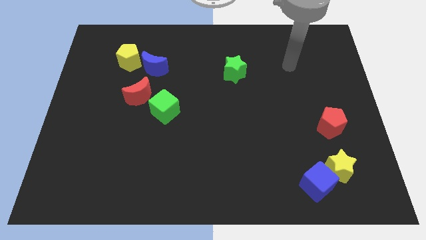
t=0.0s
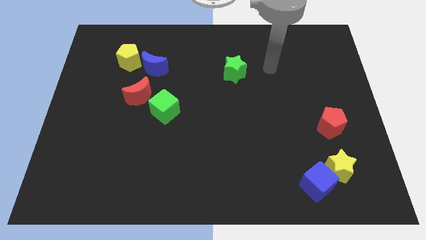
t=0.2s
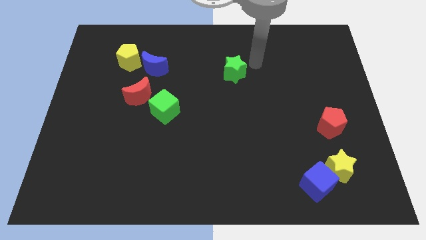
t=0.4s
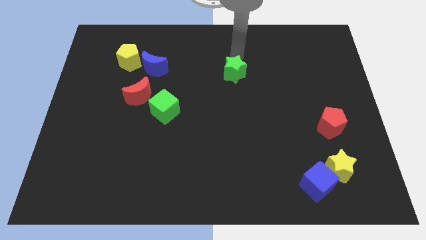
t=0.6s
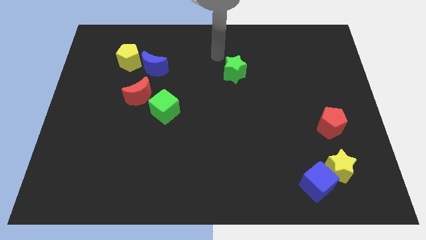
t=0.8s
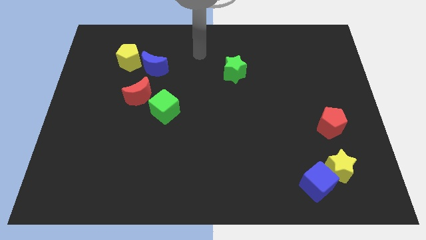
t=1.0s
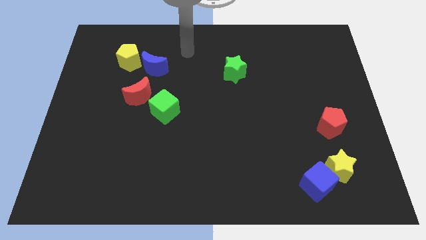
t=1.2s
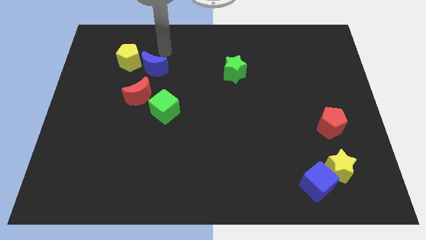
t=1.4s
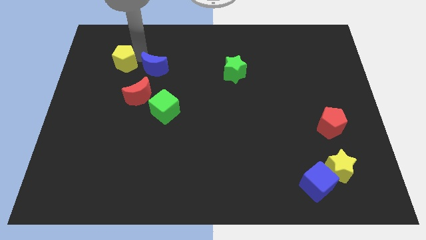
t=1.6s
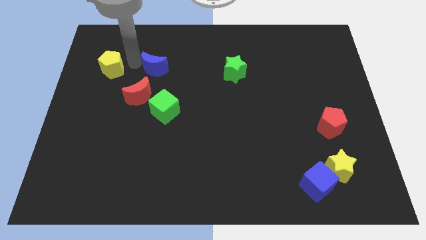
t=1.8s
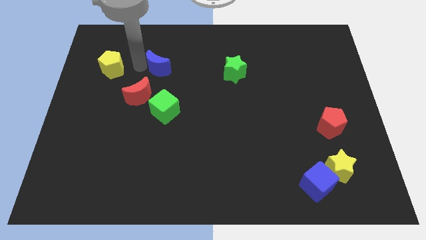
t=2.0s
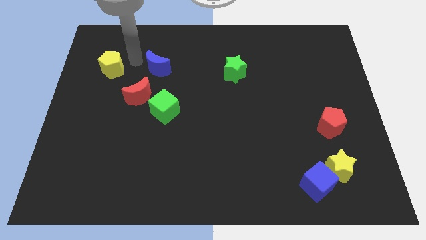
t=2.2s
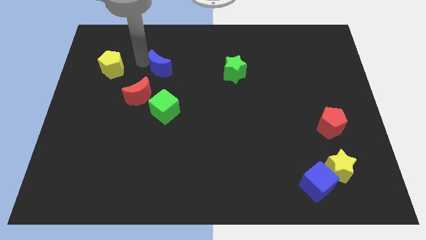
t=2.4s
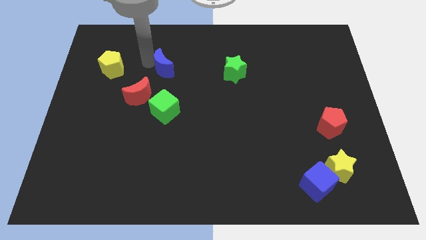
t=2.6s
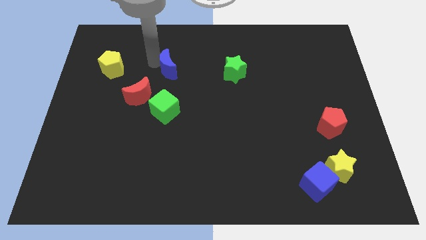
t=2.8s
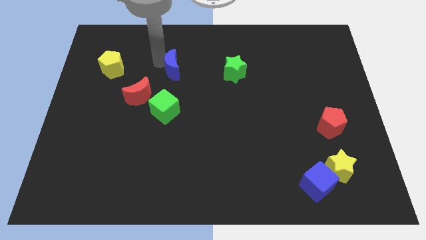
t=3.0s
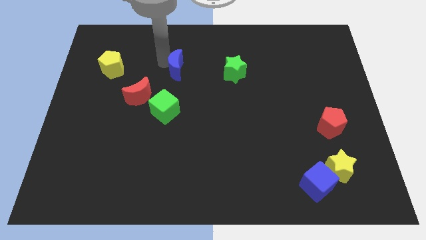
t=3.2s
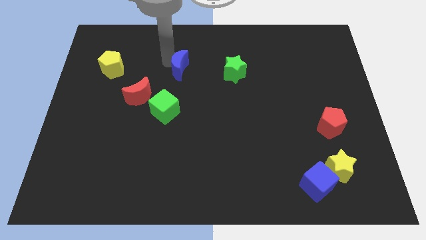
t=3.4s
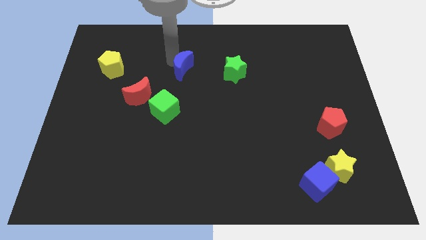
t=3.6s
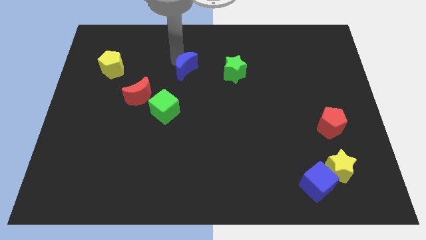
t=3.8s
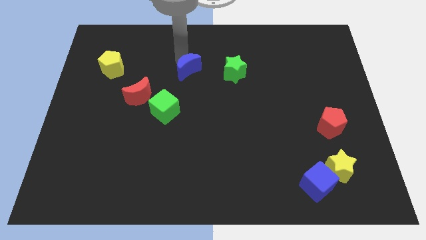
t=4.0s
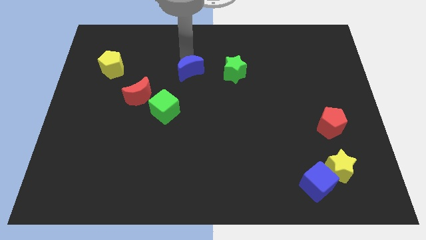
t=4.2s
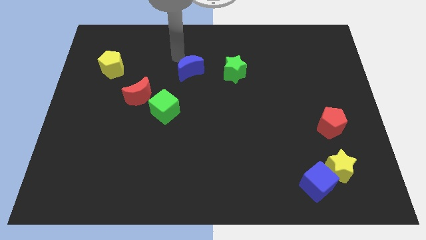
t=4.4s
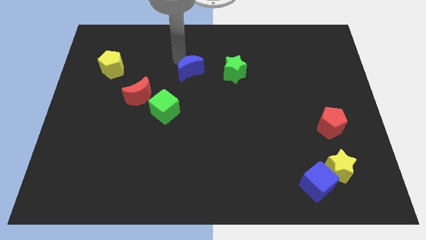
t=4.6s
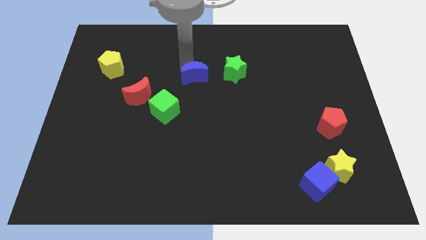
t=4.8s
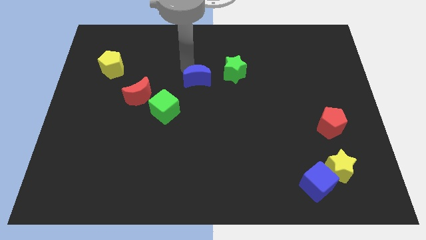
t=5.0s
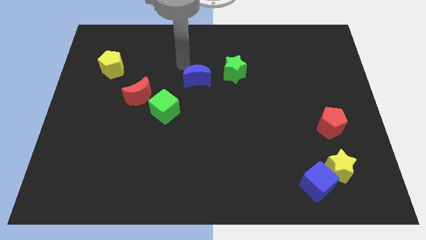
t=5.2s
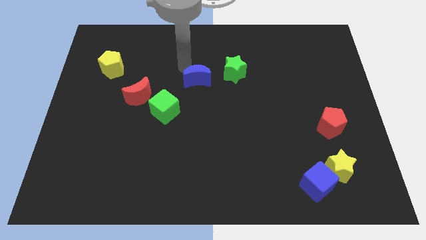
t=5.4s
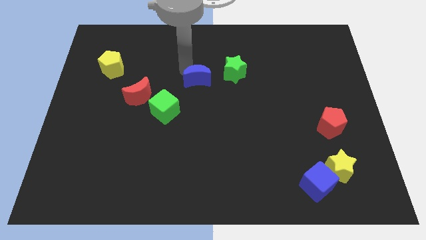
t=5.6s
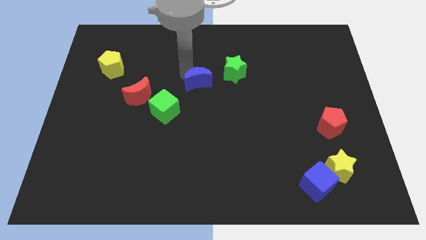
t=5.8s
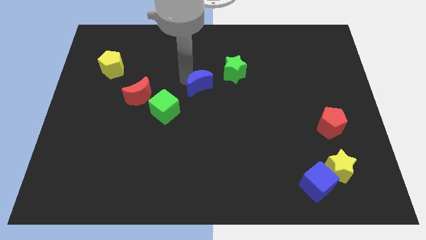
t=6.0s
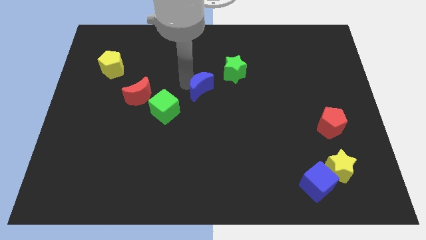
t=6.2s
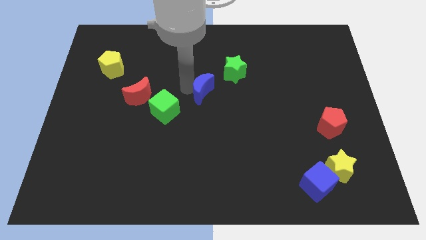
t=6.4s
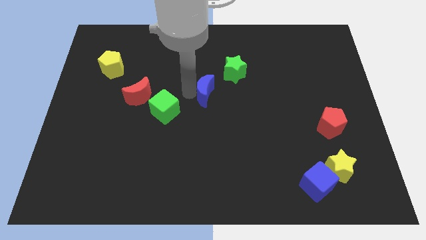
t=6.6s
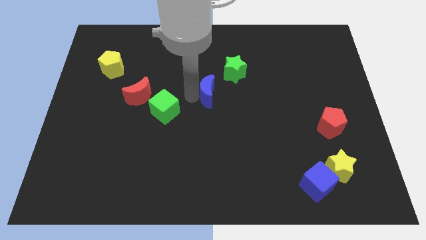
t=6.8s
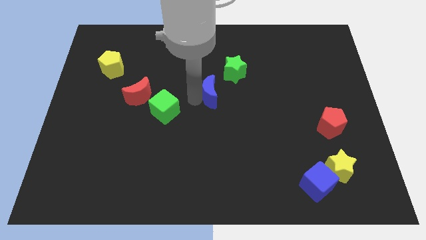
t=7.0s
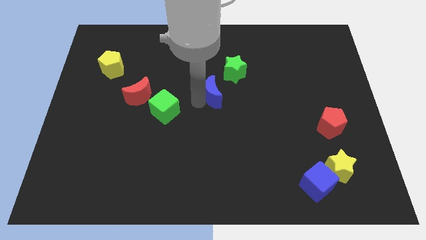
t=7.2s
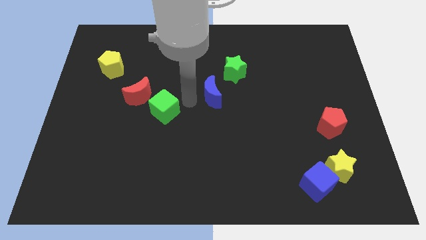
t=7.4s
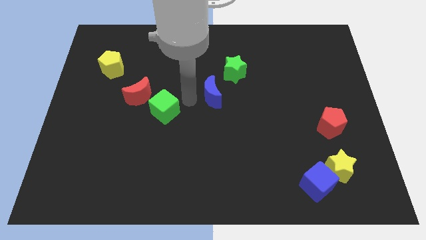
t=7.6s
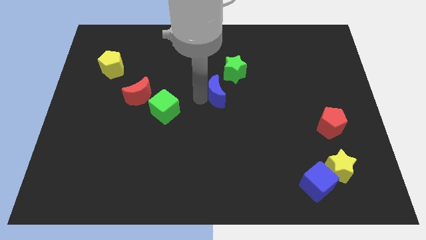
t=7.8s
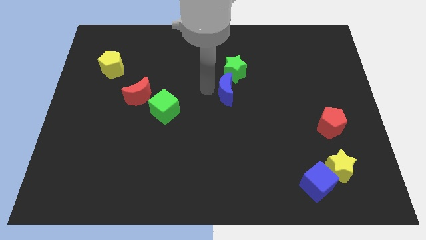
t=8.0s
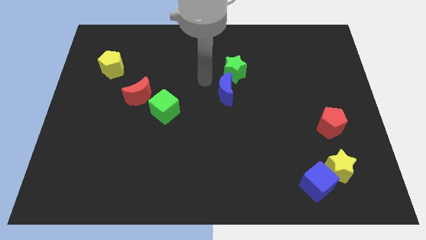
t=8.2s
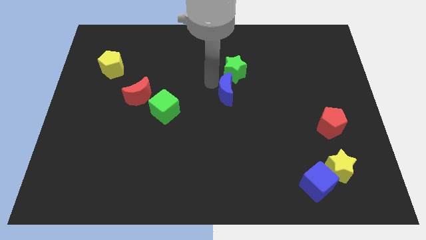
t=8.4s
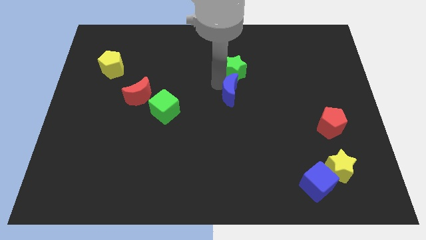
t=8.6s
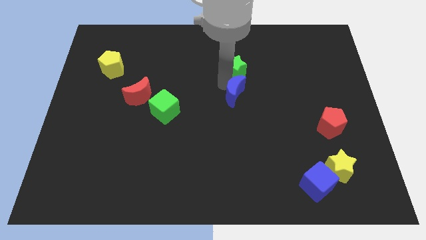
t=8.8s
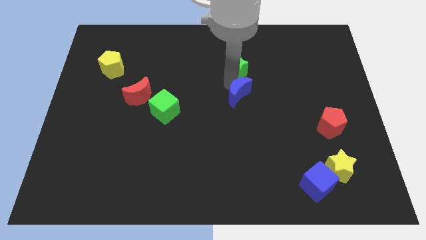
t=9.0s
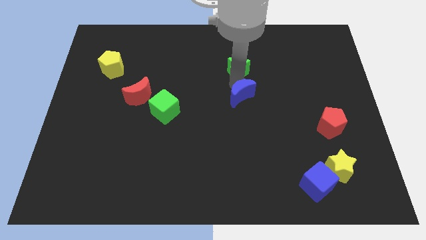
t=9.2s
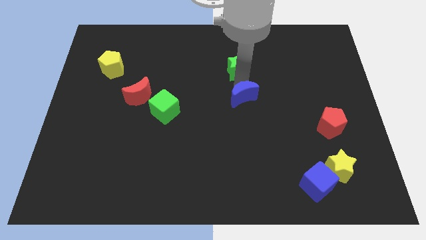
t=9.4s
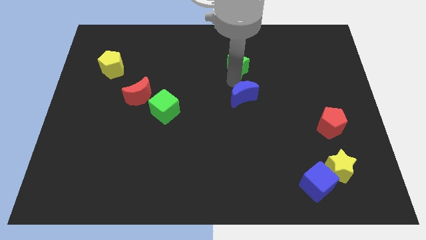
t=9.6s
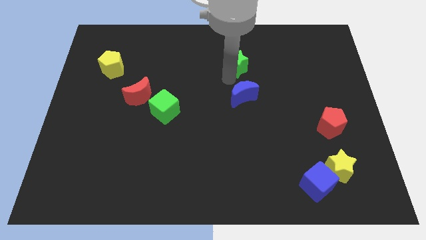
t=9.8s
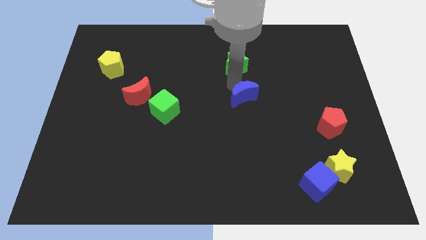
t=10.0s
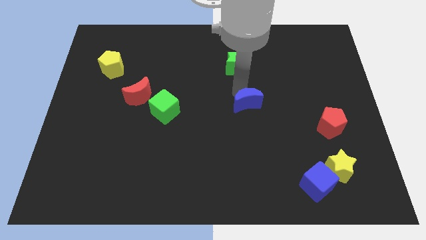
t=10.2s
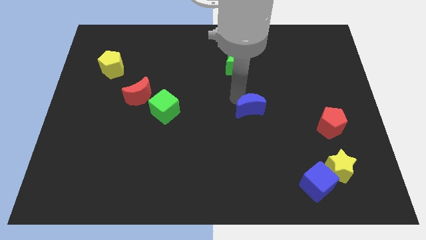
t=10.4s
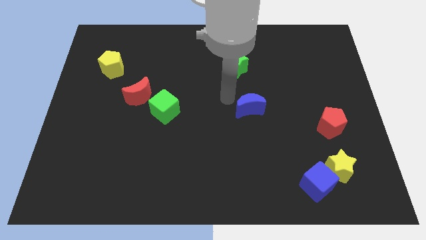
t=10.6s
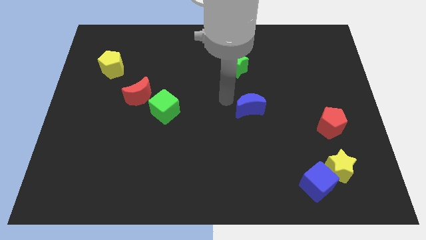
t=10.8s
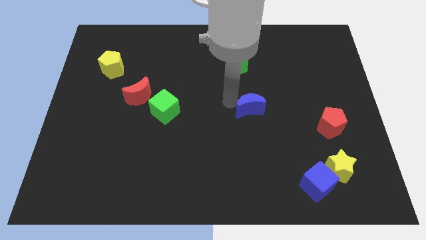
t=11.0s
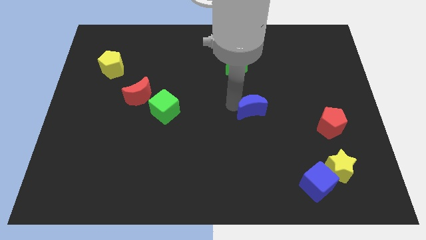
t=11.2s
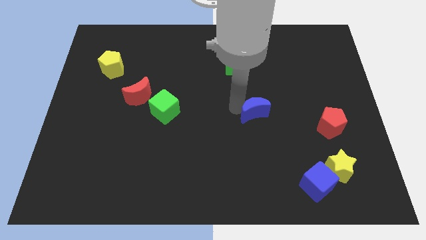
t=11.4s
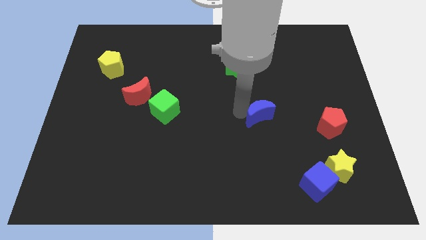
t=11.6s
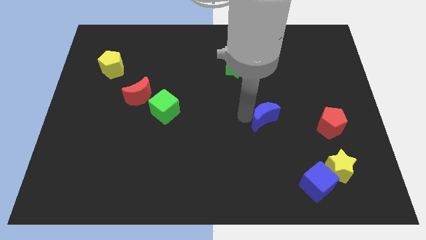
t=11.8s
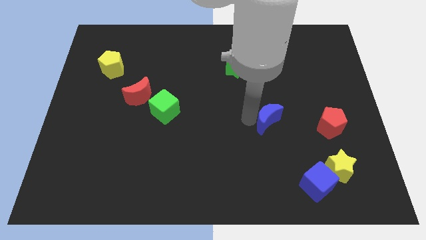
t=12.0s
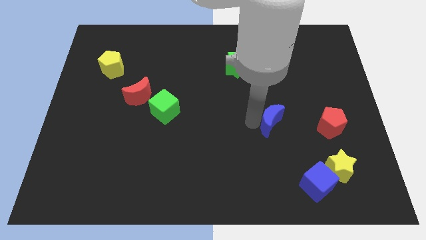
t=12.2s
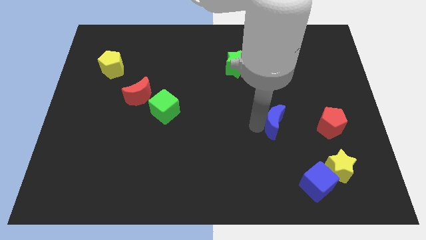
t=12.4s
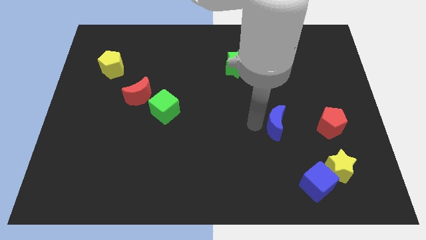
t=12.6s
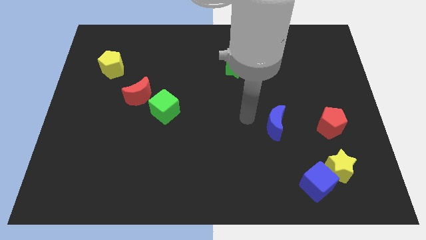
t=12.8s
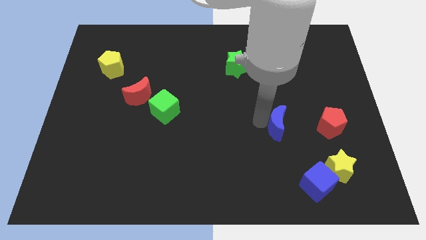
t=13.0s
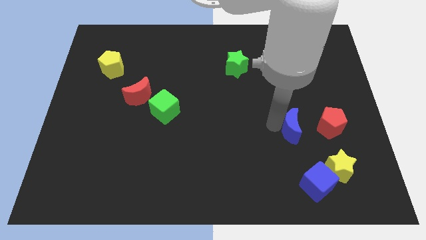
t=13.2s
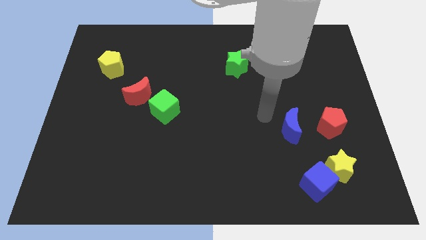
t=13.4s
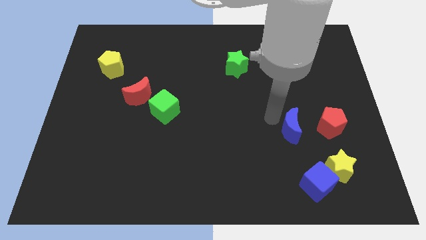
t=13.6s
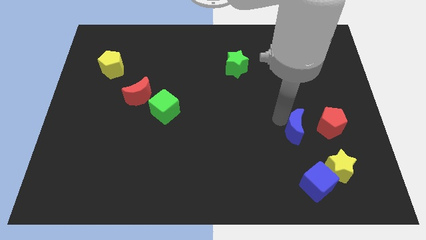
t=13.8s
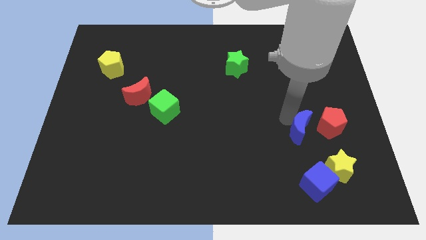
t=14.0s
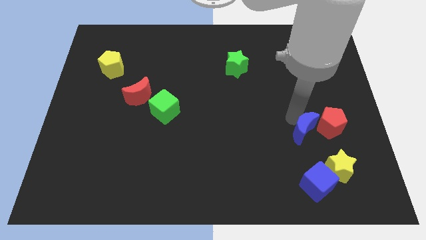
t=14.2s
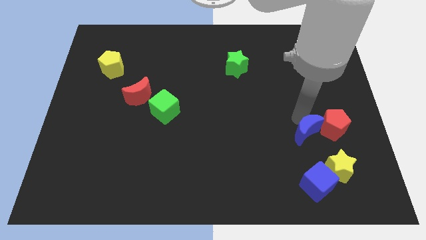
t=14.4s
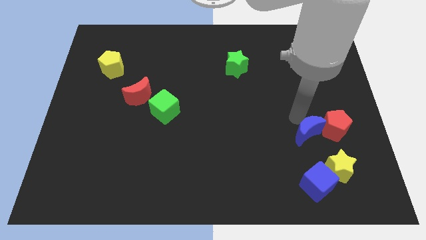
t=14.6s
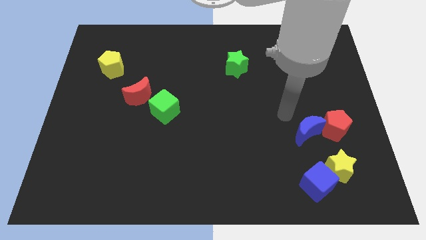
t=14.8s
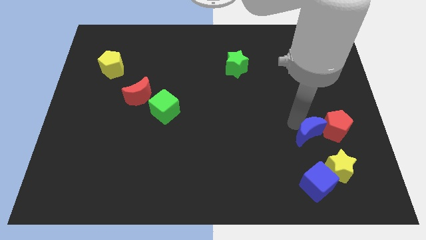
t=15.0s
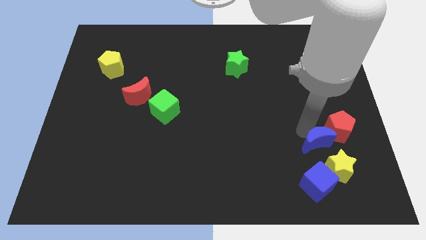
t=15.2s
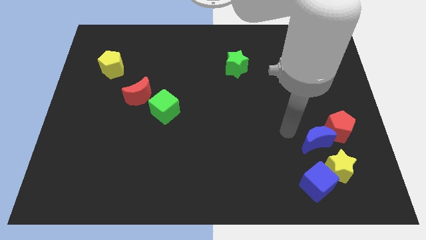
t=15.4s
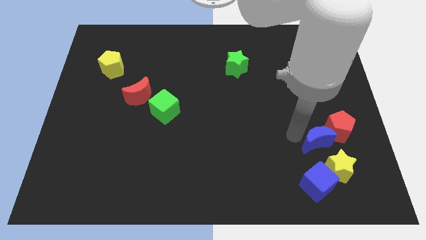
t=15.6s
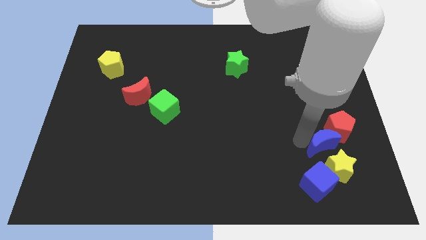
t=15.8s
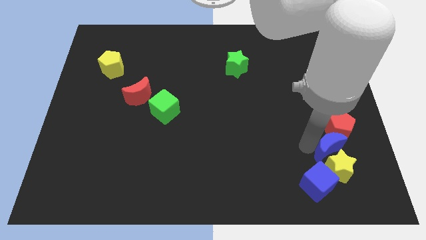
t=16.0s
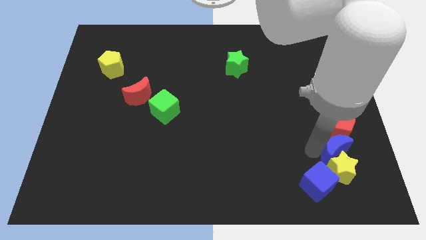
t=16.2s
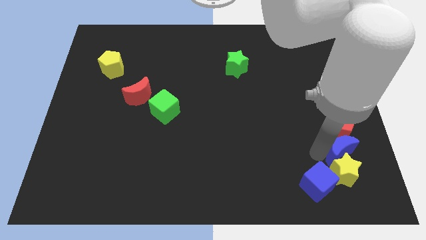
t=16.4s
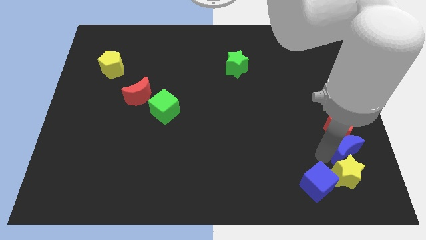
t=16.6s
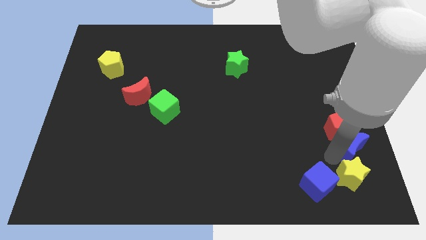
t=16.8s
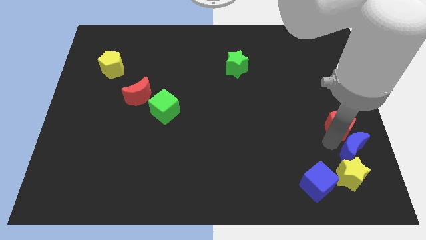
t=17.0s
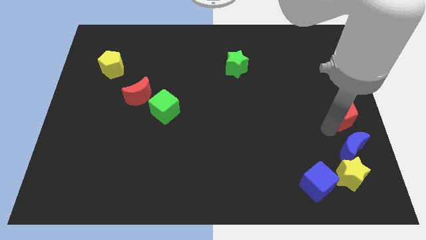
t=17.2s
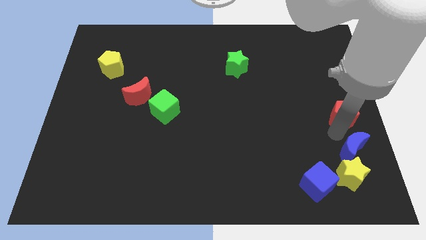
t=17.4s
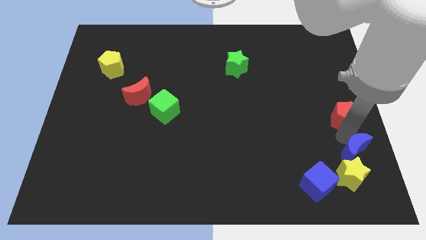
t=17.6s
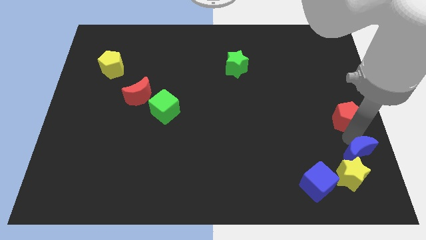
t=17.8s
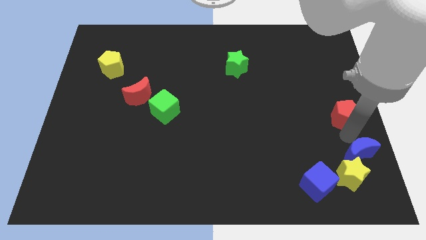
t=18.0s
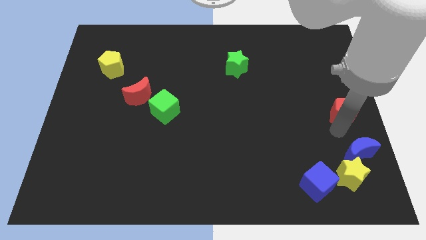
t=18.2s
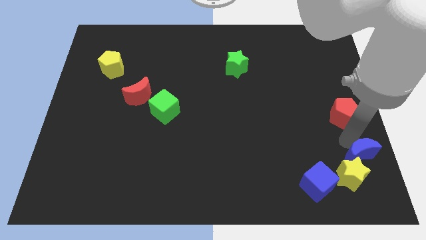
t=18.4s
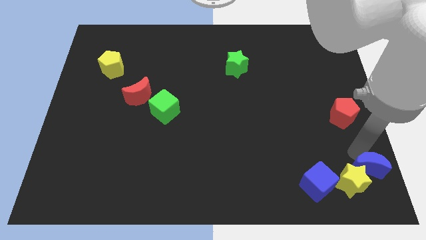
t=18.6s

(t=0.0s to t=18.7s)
slide the blue moon to the bottom right corner
